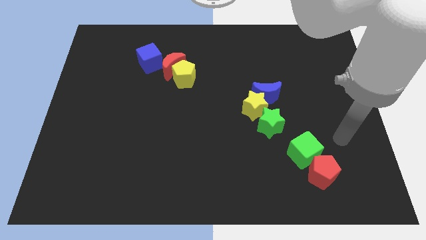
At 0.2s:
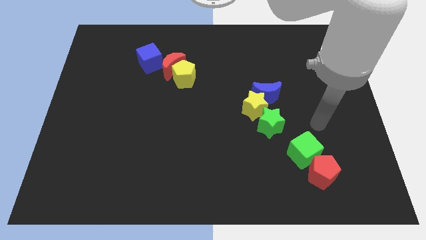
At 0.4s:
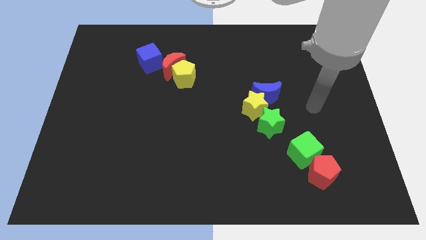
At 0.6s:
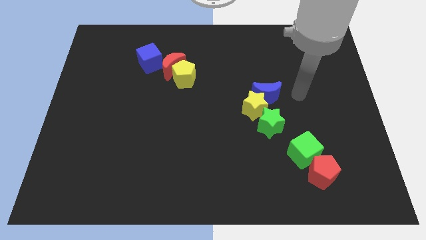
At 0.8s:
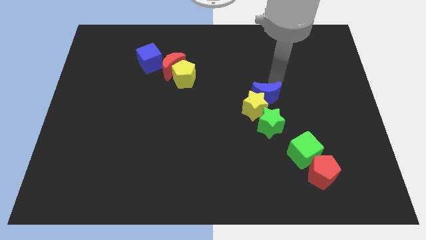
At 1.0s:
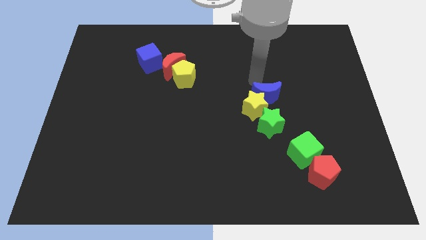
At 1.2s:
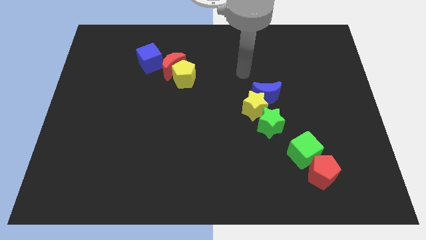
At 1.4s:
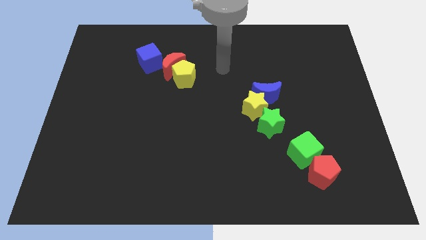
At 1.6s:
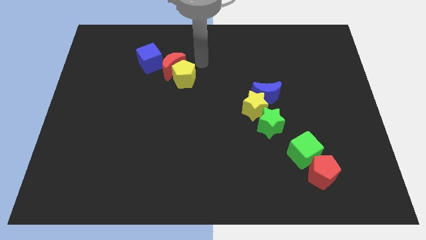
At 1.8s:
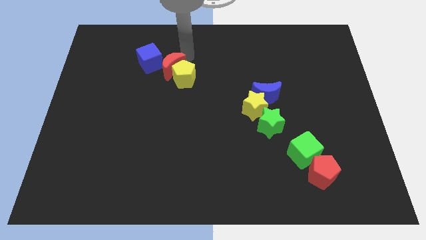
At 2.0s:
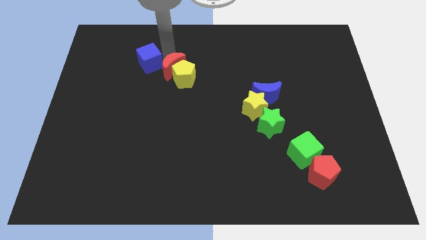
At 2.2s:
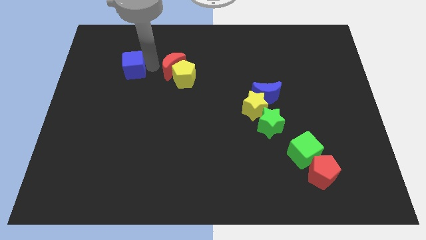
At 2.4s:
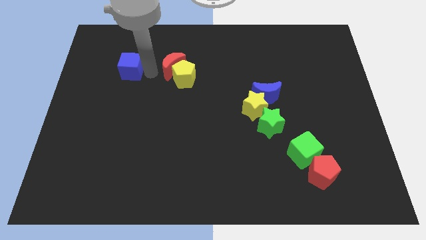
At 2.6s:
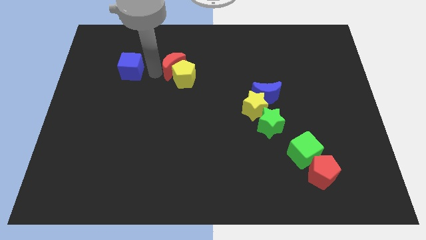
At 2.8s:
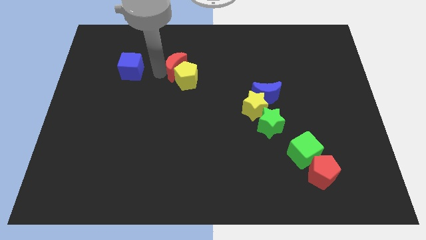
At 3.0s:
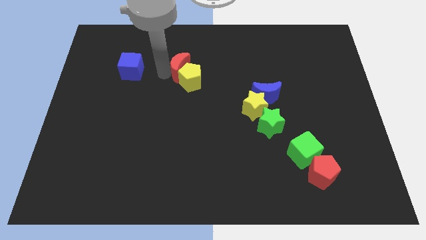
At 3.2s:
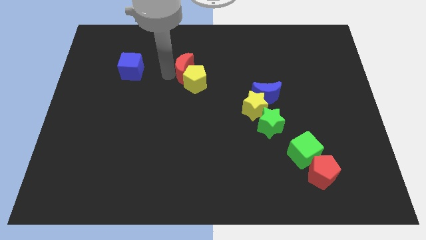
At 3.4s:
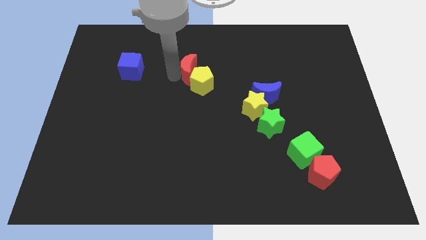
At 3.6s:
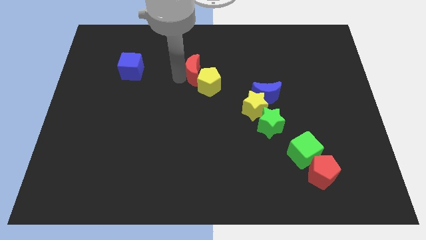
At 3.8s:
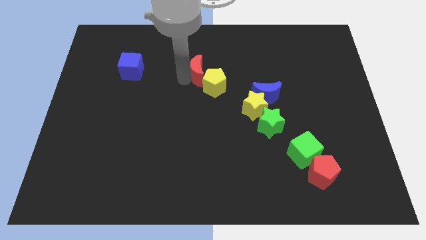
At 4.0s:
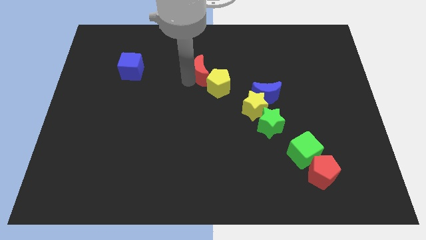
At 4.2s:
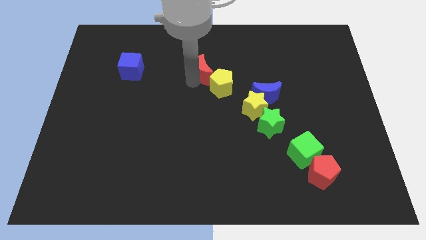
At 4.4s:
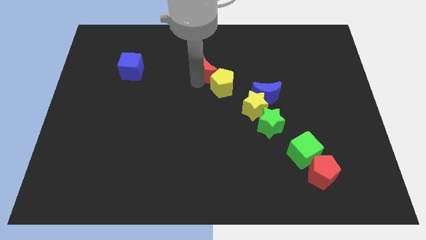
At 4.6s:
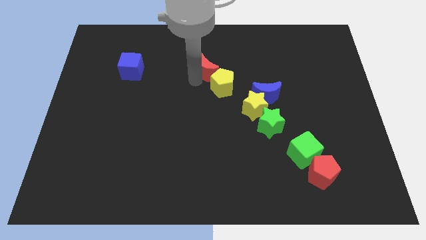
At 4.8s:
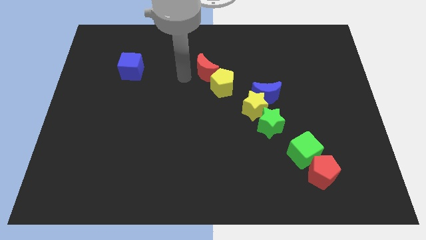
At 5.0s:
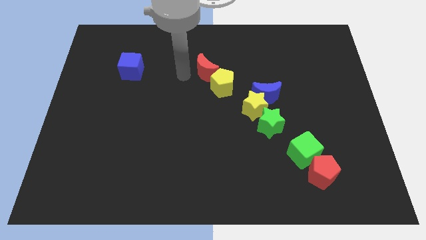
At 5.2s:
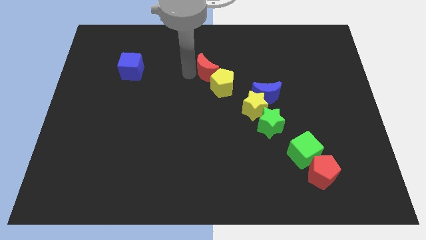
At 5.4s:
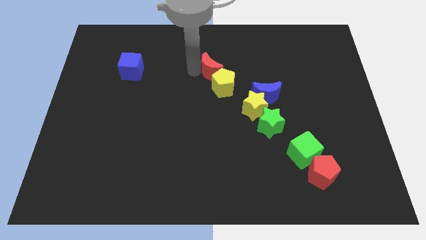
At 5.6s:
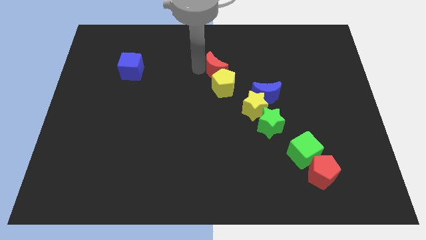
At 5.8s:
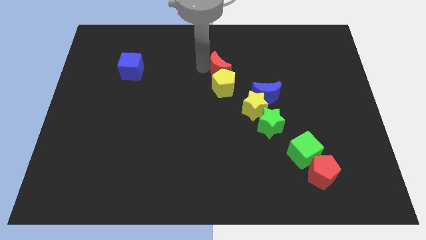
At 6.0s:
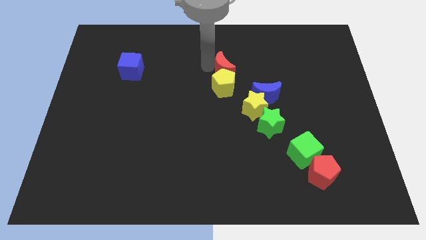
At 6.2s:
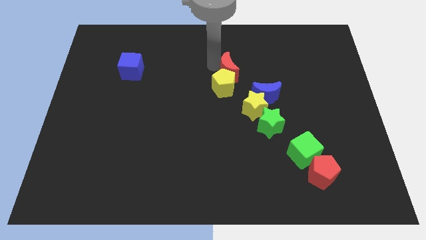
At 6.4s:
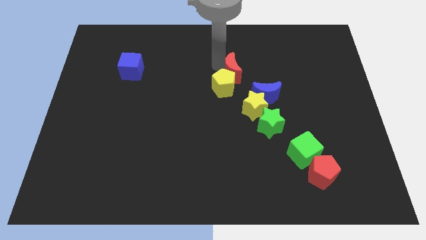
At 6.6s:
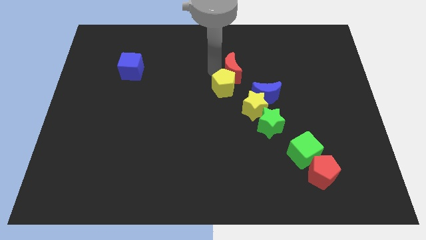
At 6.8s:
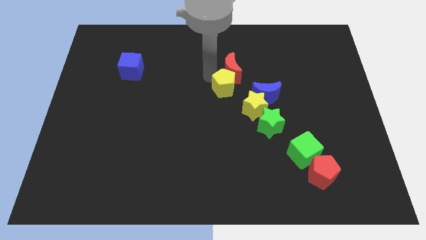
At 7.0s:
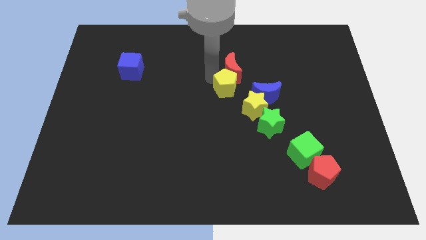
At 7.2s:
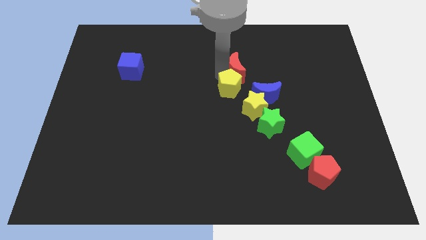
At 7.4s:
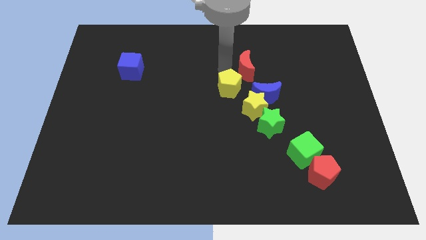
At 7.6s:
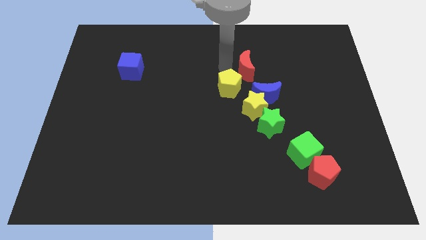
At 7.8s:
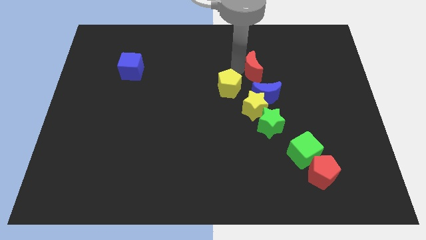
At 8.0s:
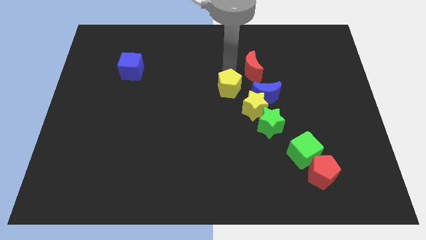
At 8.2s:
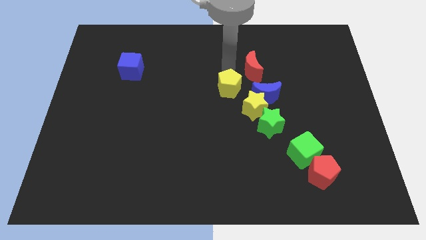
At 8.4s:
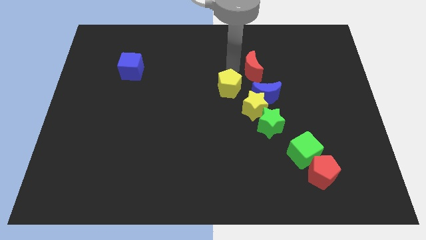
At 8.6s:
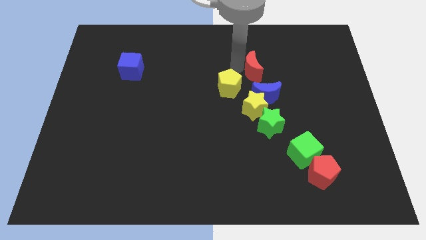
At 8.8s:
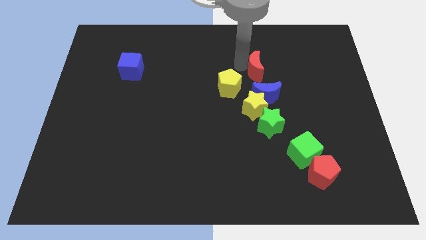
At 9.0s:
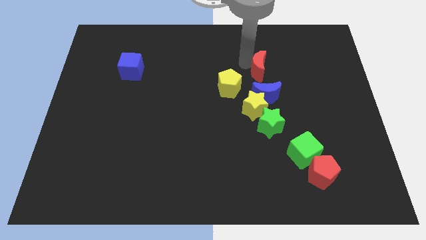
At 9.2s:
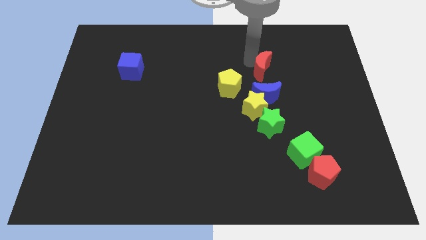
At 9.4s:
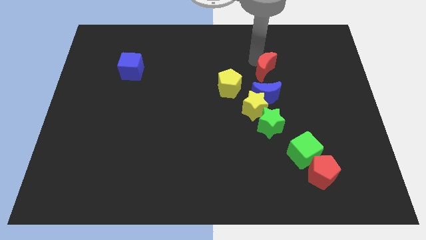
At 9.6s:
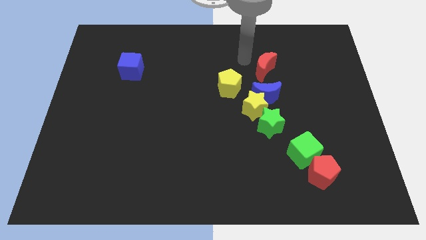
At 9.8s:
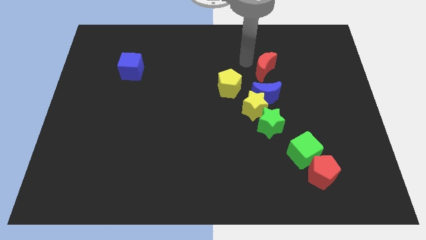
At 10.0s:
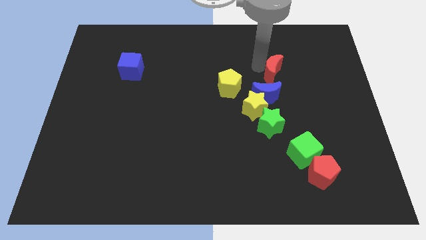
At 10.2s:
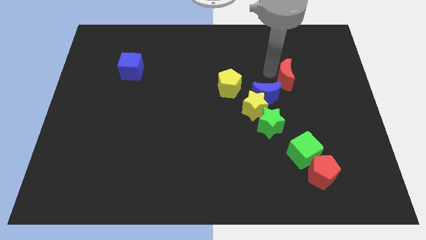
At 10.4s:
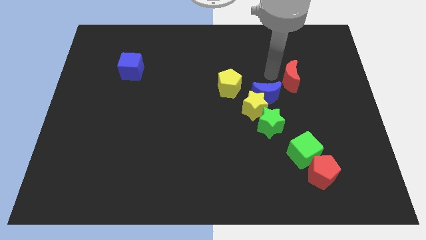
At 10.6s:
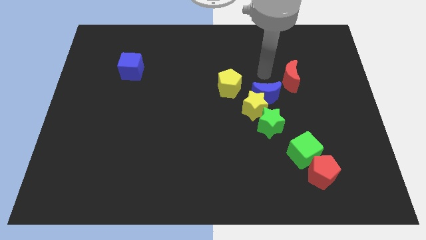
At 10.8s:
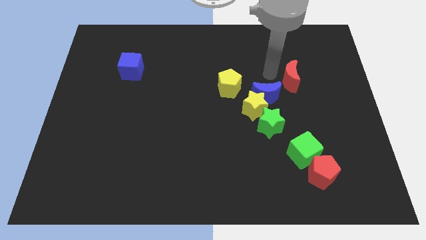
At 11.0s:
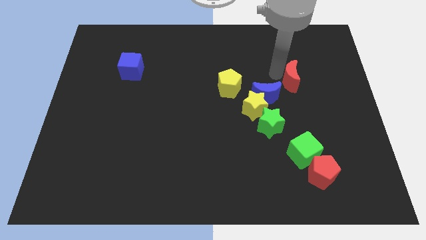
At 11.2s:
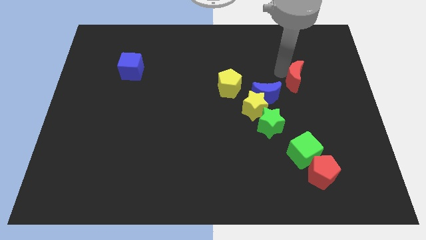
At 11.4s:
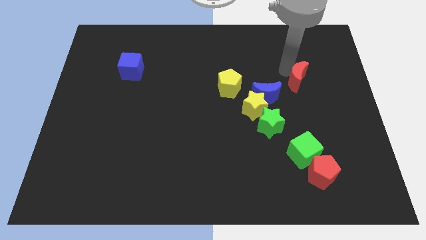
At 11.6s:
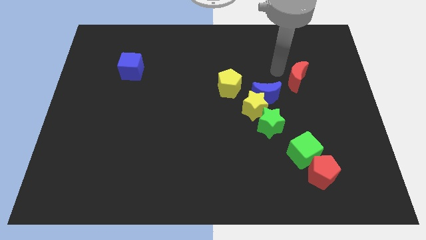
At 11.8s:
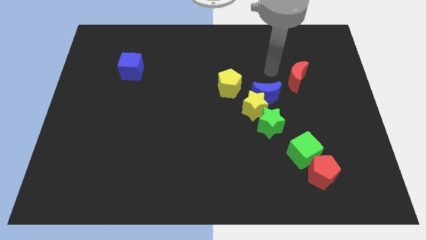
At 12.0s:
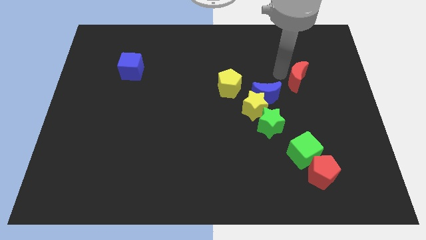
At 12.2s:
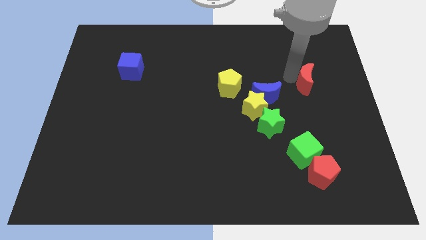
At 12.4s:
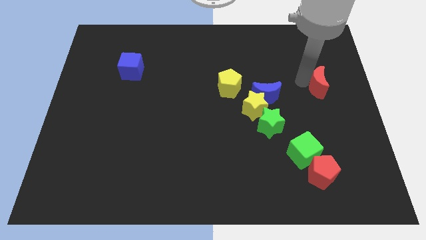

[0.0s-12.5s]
slide the red moon to the center right
